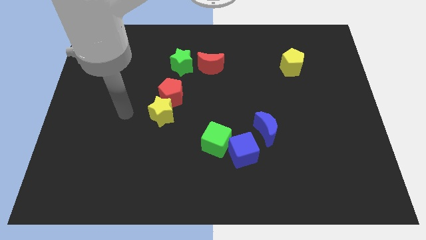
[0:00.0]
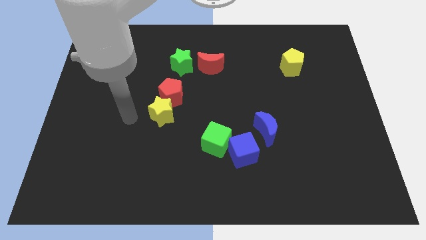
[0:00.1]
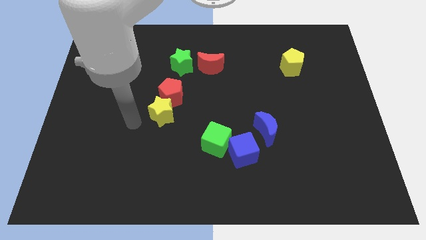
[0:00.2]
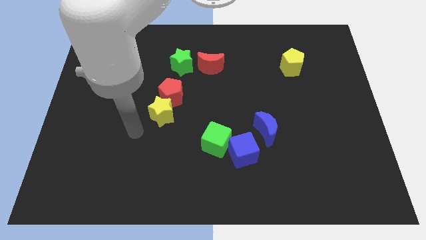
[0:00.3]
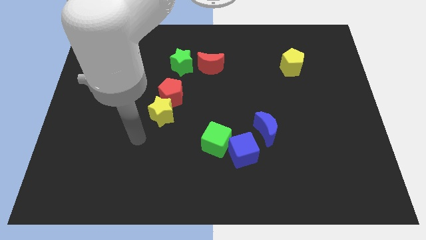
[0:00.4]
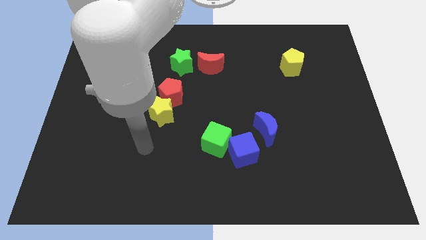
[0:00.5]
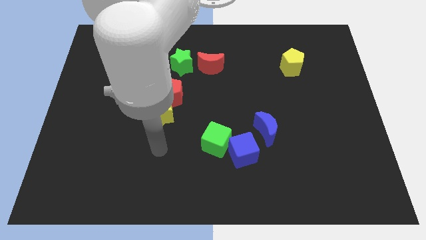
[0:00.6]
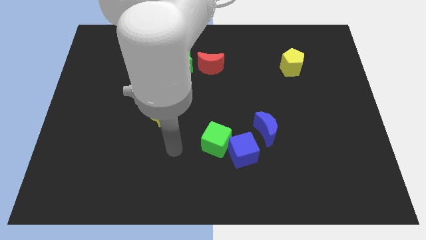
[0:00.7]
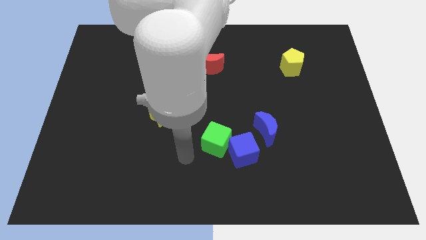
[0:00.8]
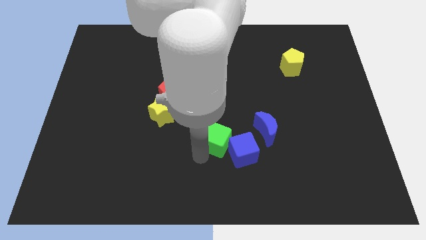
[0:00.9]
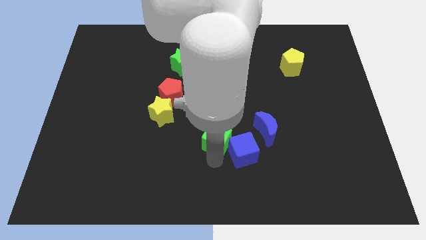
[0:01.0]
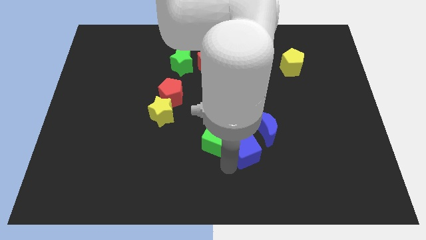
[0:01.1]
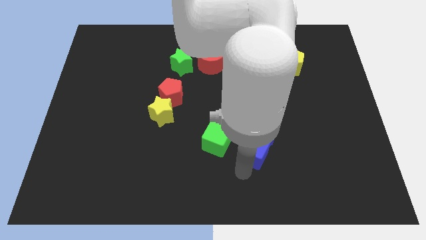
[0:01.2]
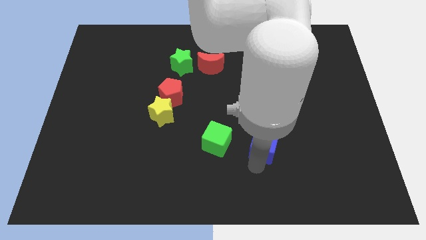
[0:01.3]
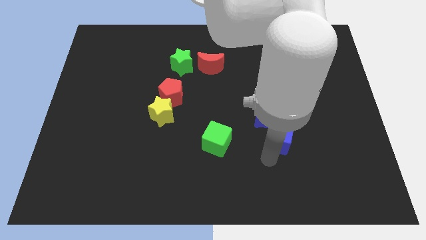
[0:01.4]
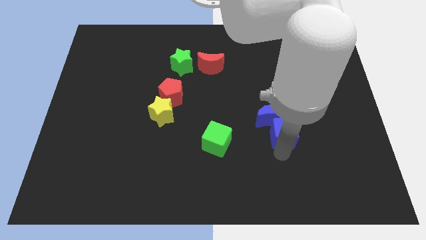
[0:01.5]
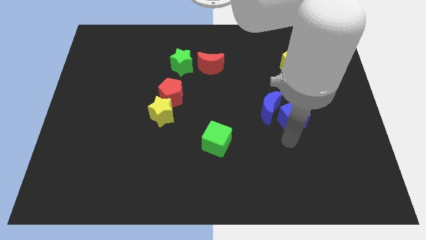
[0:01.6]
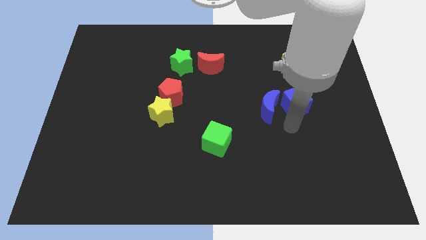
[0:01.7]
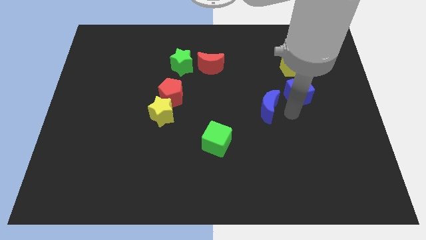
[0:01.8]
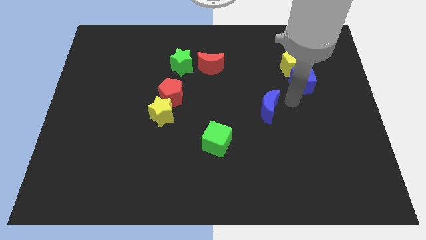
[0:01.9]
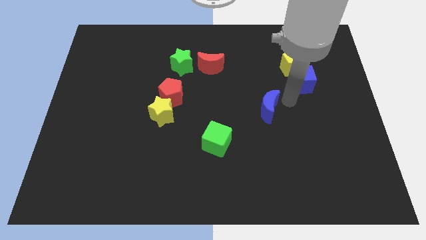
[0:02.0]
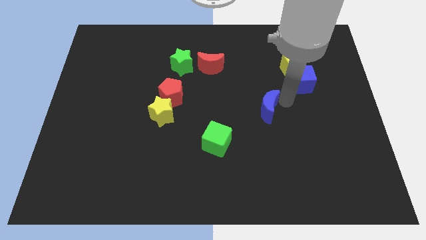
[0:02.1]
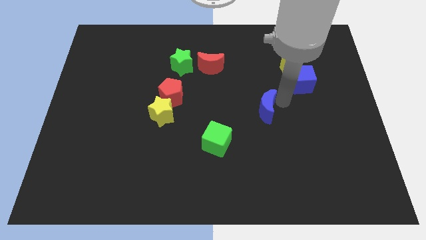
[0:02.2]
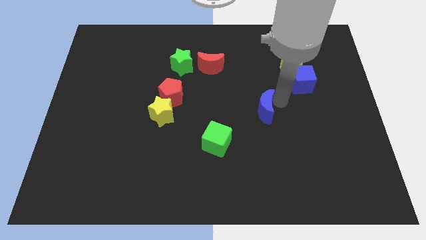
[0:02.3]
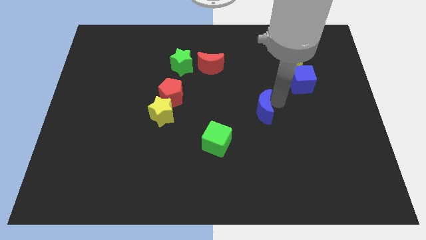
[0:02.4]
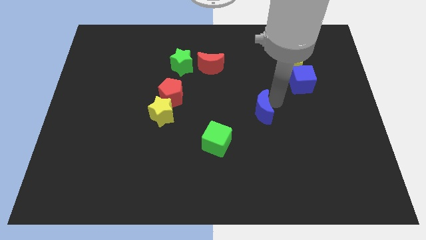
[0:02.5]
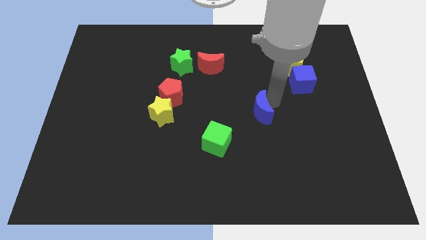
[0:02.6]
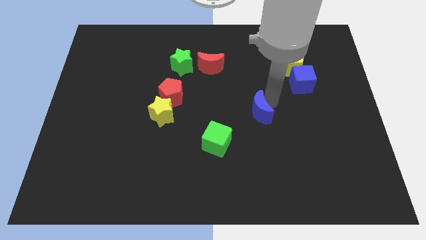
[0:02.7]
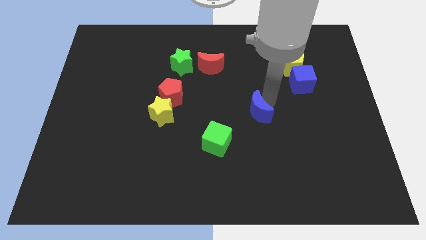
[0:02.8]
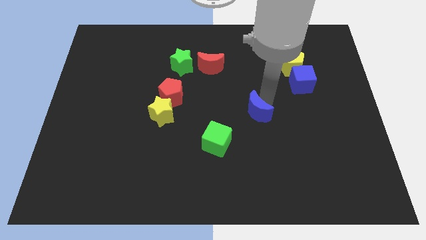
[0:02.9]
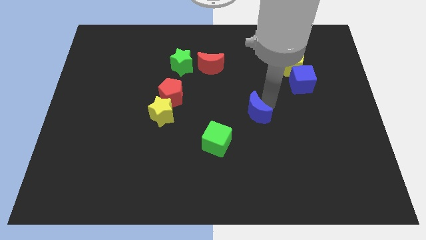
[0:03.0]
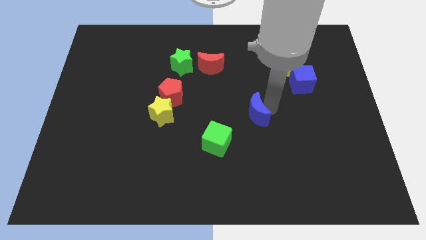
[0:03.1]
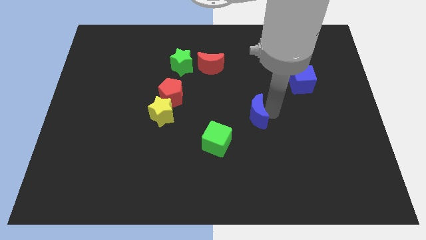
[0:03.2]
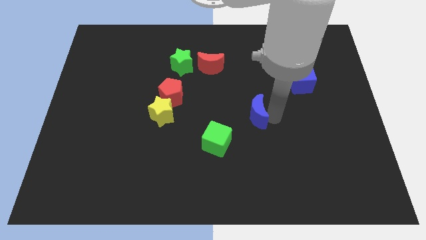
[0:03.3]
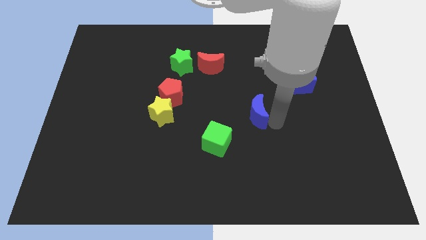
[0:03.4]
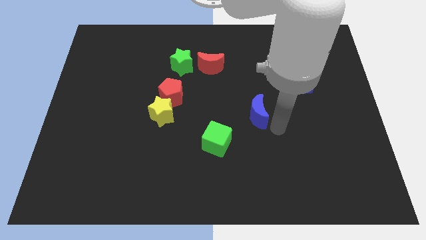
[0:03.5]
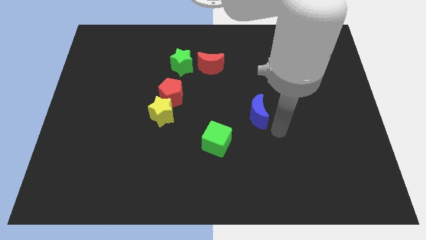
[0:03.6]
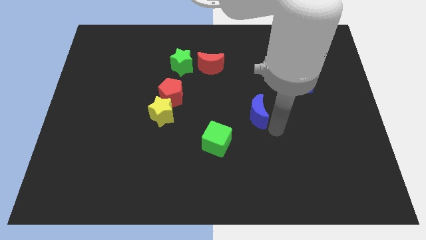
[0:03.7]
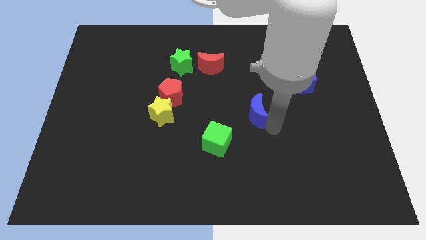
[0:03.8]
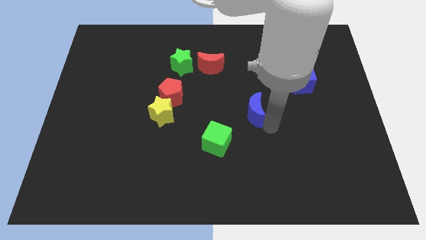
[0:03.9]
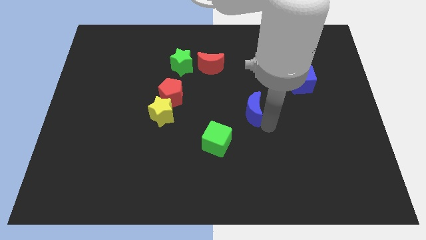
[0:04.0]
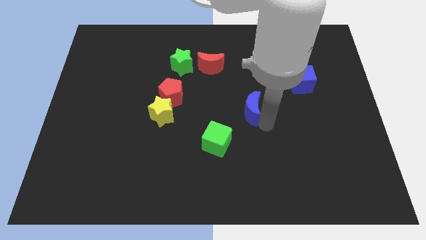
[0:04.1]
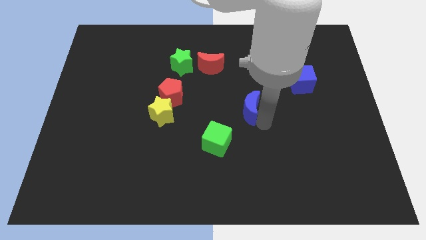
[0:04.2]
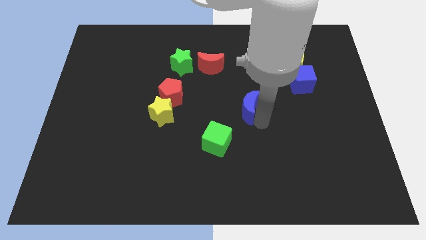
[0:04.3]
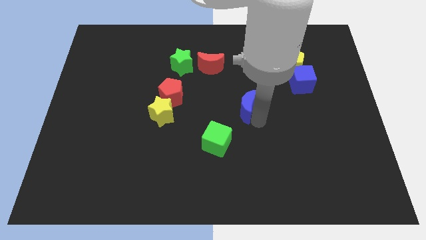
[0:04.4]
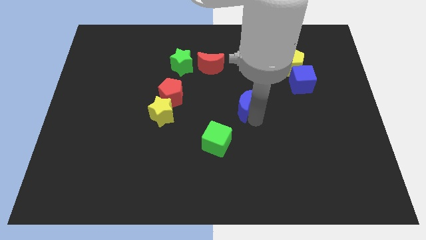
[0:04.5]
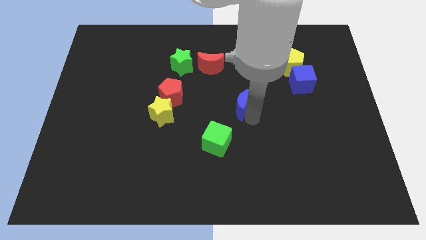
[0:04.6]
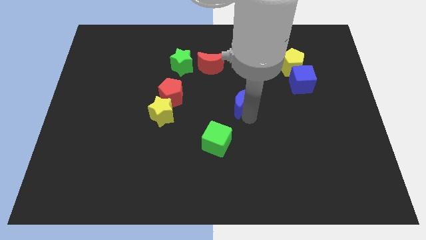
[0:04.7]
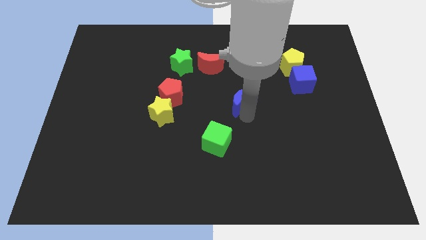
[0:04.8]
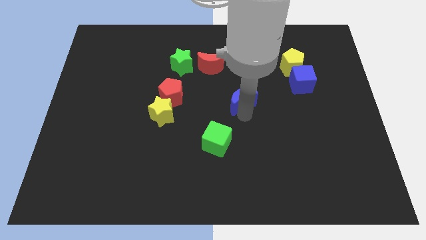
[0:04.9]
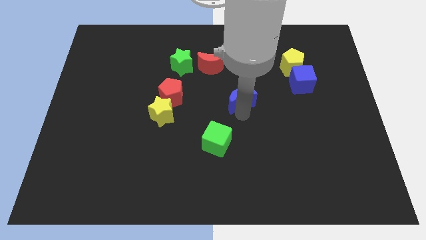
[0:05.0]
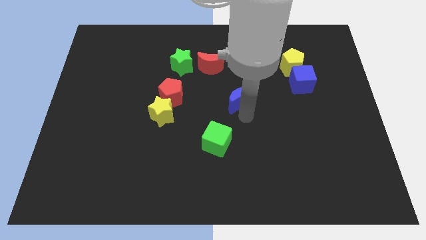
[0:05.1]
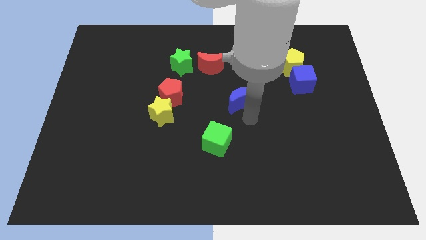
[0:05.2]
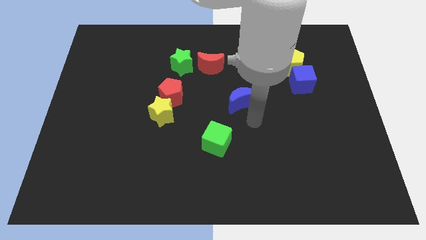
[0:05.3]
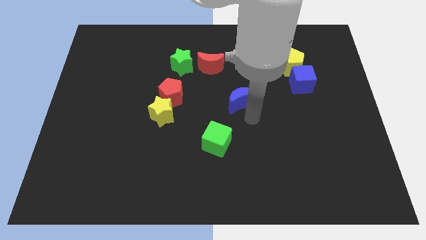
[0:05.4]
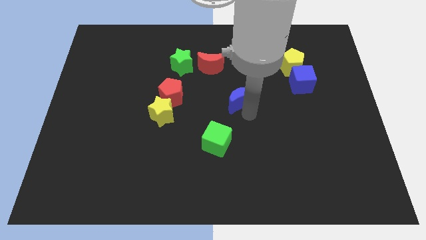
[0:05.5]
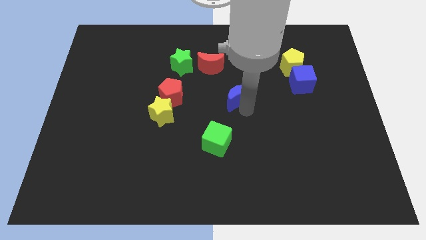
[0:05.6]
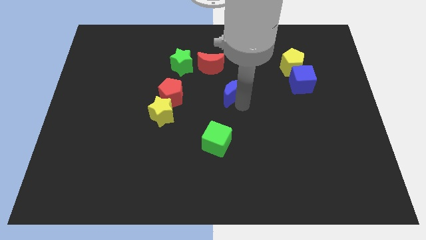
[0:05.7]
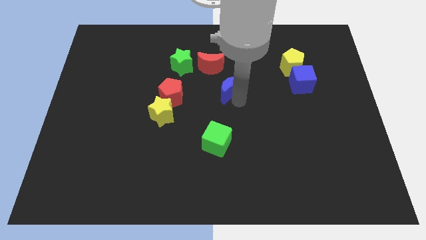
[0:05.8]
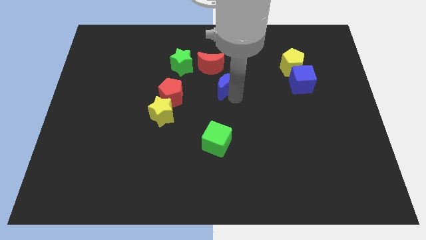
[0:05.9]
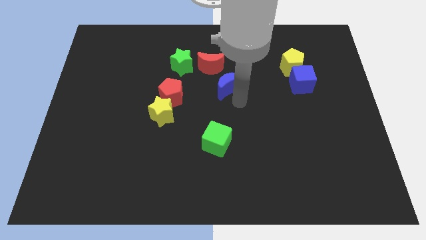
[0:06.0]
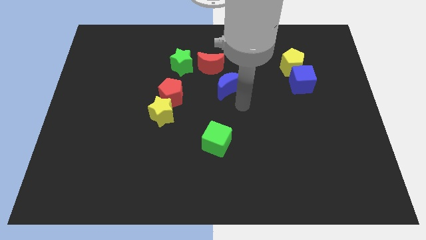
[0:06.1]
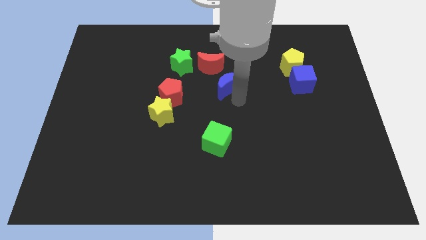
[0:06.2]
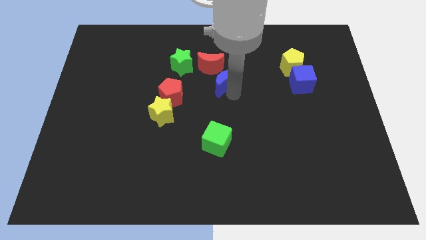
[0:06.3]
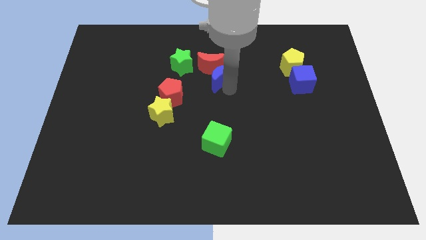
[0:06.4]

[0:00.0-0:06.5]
move the blue moon to the red moon

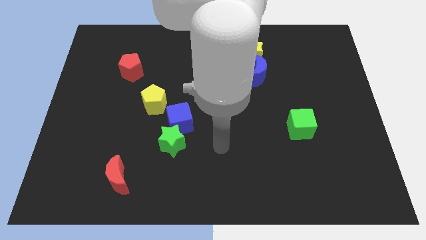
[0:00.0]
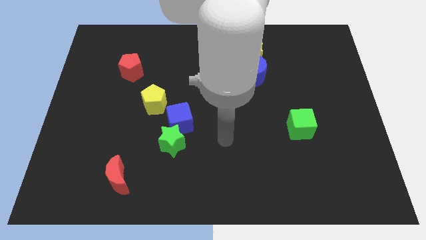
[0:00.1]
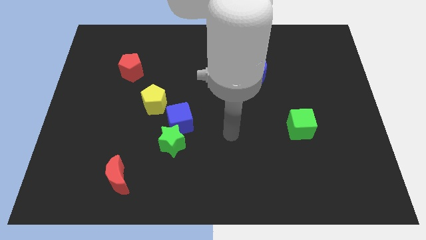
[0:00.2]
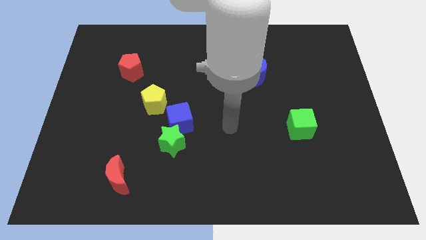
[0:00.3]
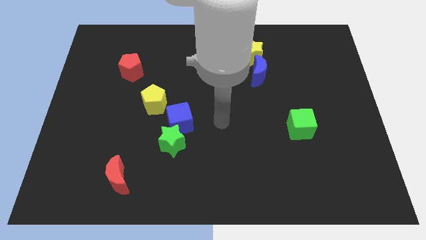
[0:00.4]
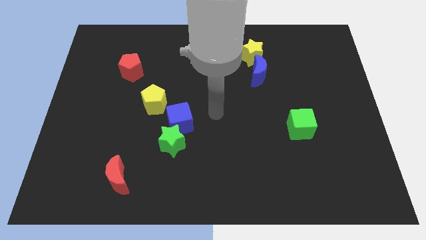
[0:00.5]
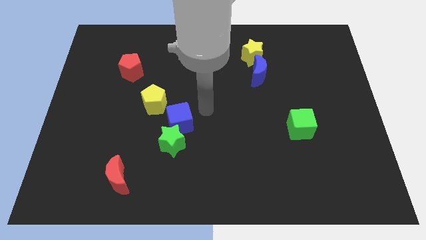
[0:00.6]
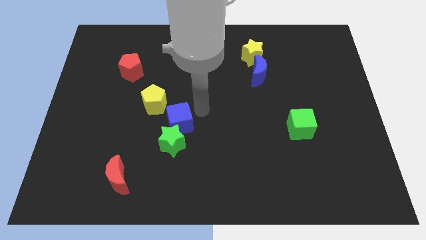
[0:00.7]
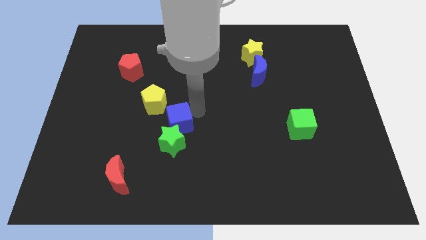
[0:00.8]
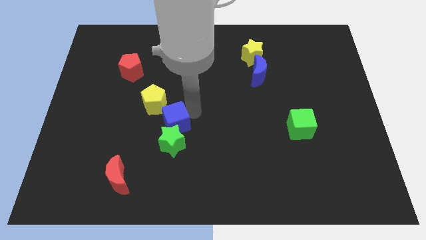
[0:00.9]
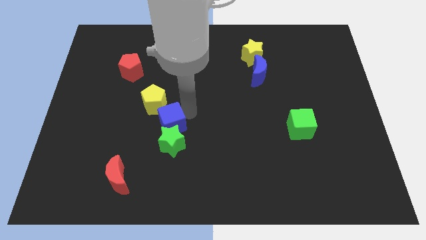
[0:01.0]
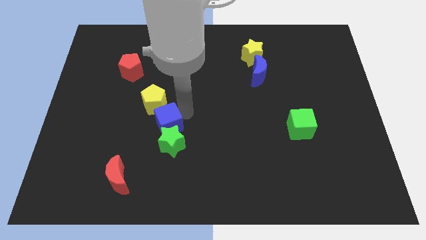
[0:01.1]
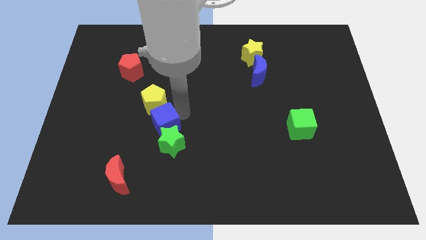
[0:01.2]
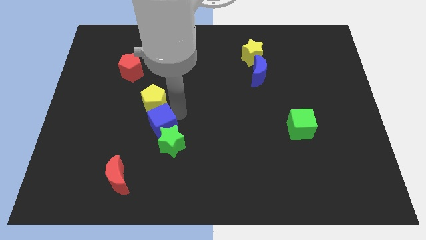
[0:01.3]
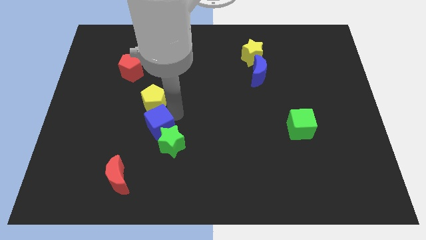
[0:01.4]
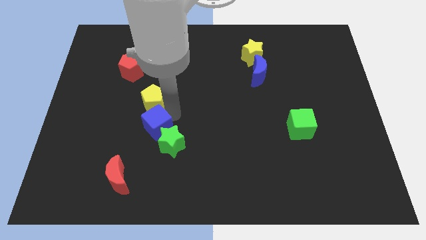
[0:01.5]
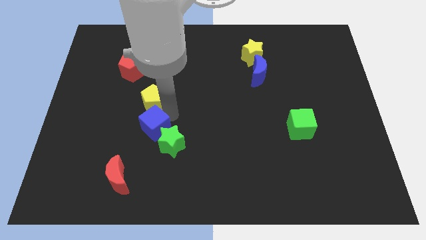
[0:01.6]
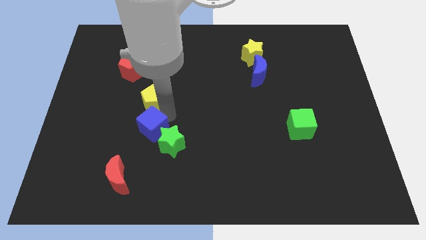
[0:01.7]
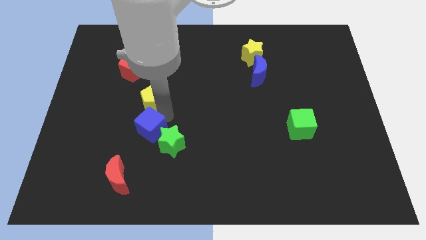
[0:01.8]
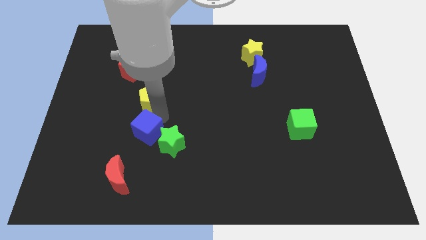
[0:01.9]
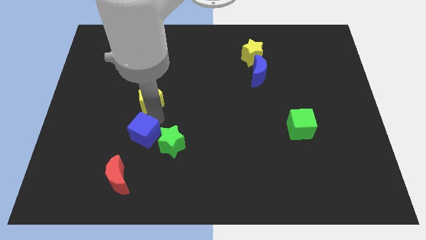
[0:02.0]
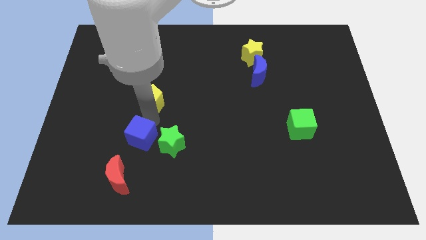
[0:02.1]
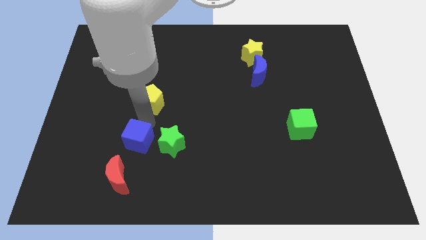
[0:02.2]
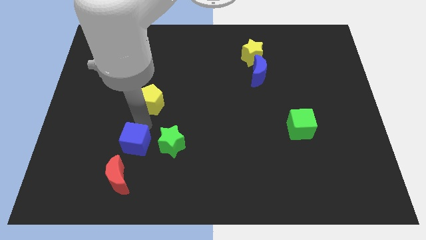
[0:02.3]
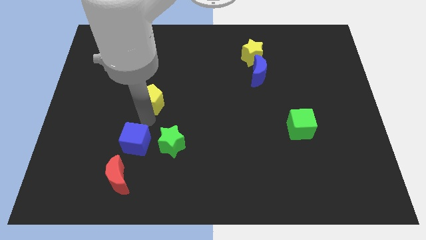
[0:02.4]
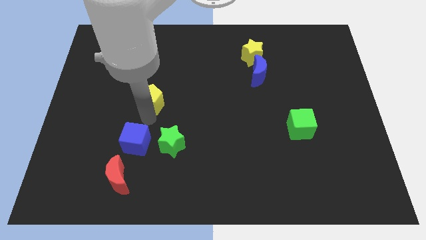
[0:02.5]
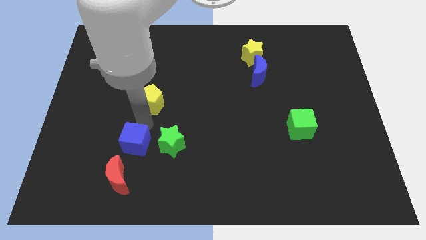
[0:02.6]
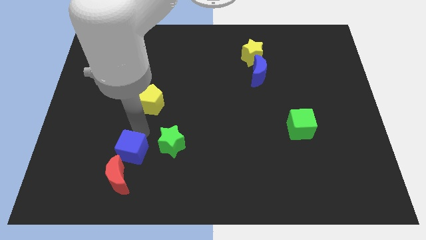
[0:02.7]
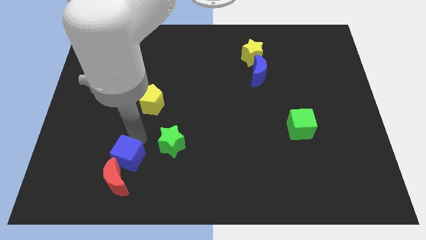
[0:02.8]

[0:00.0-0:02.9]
push the blue cube next to the red moon
